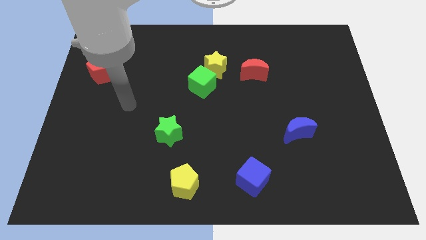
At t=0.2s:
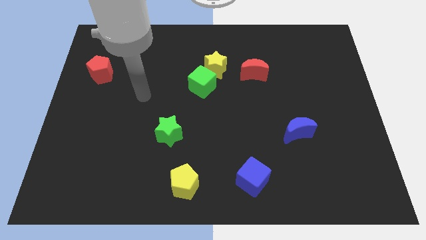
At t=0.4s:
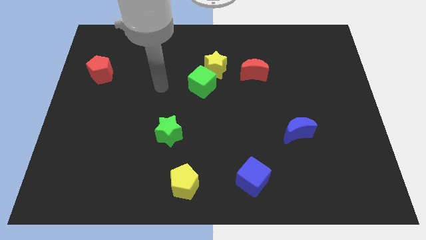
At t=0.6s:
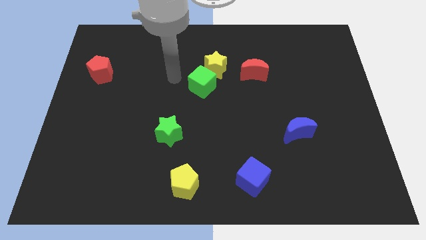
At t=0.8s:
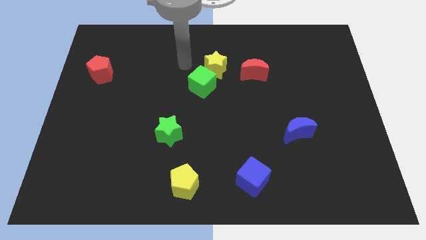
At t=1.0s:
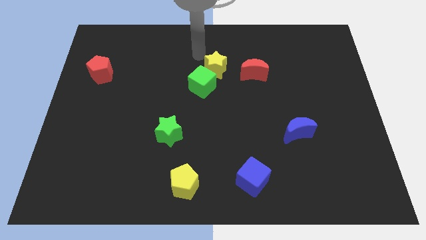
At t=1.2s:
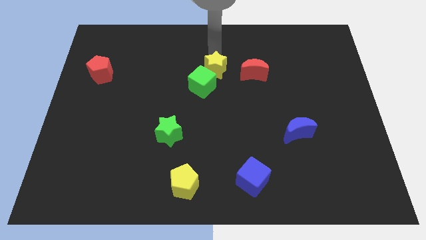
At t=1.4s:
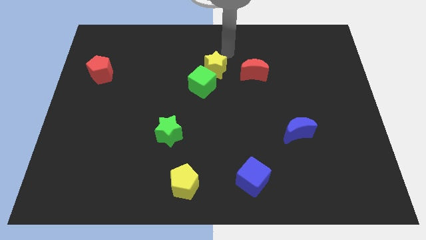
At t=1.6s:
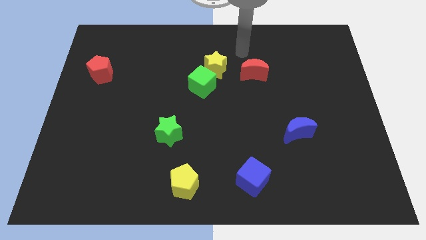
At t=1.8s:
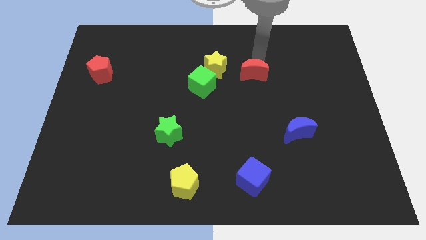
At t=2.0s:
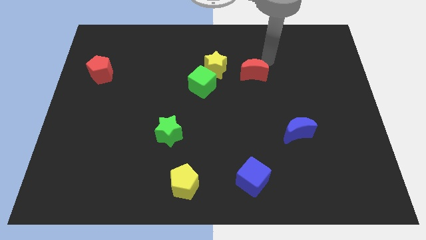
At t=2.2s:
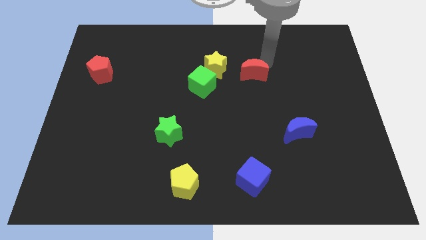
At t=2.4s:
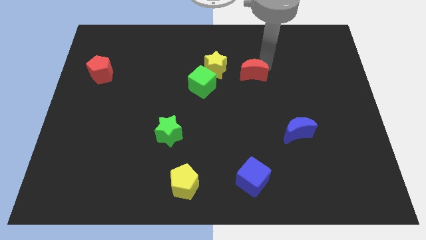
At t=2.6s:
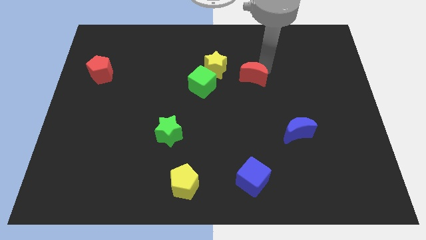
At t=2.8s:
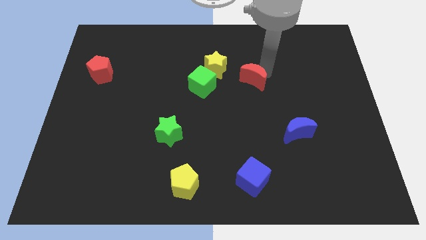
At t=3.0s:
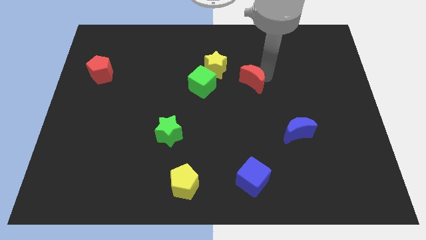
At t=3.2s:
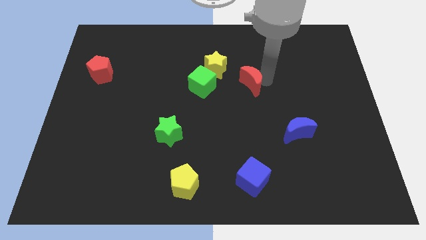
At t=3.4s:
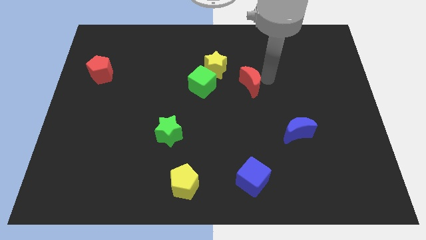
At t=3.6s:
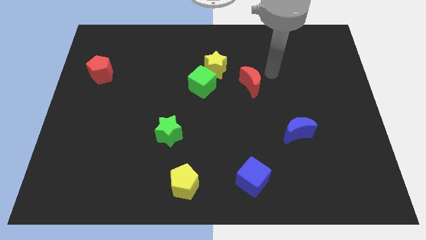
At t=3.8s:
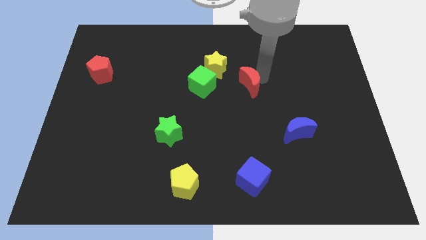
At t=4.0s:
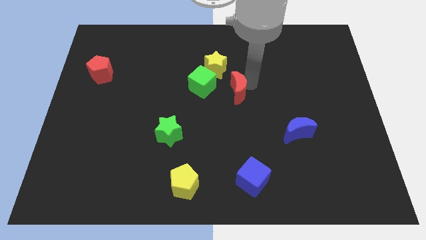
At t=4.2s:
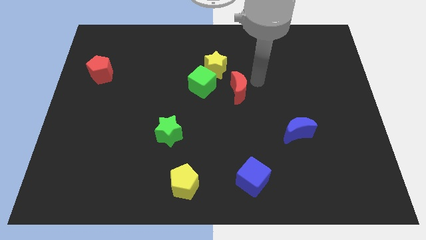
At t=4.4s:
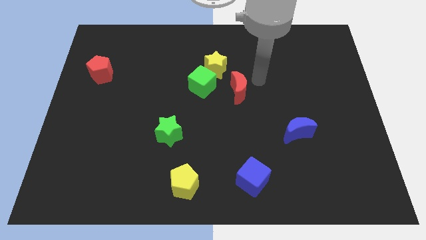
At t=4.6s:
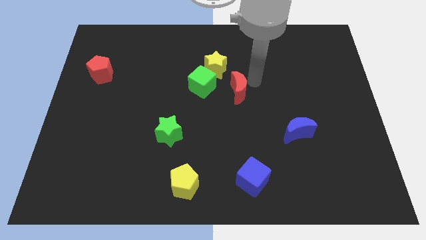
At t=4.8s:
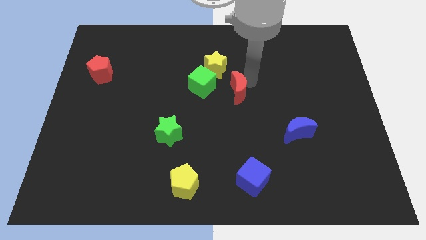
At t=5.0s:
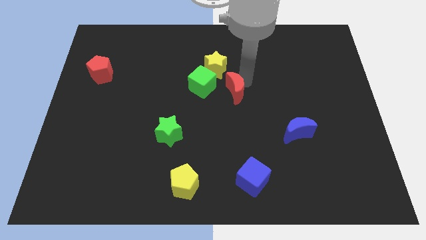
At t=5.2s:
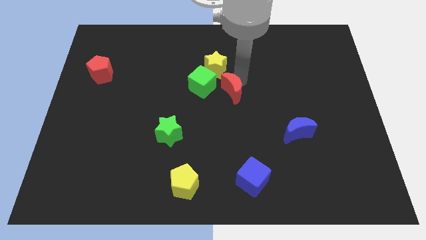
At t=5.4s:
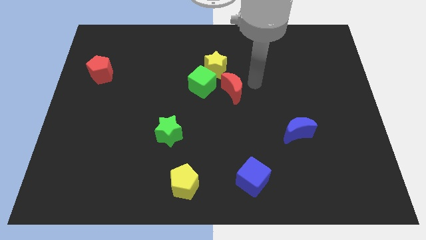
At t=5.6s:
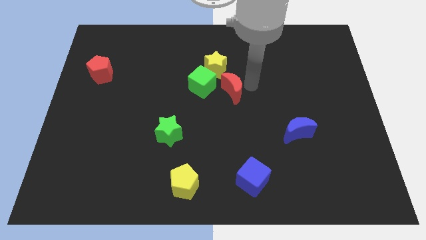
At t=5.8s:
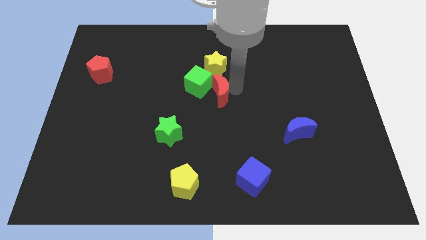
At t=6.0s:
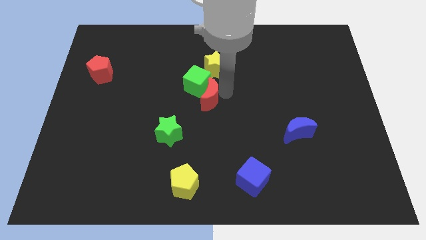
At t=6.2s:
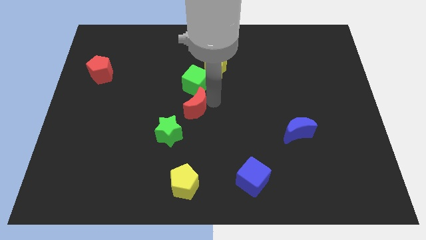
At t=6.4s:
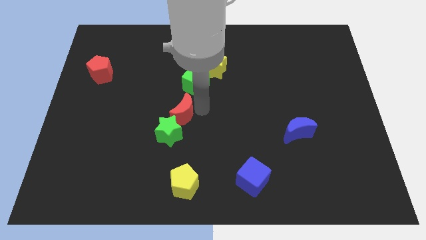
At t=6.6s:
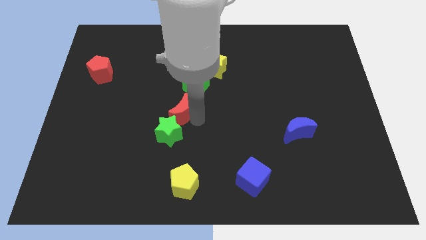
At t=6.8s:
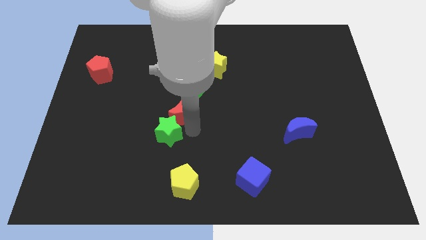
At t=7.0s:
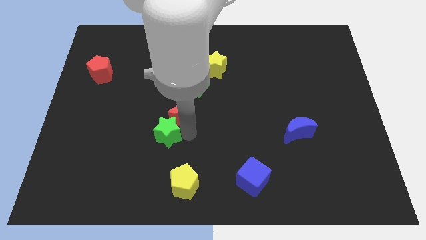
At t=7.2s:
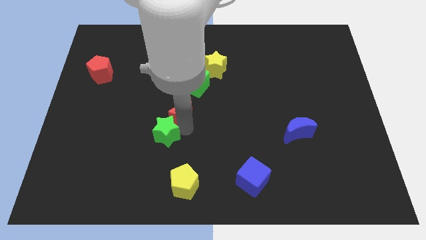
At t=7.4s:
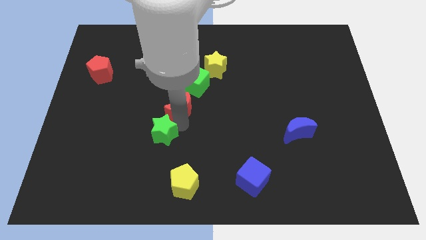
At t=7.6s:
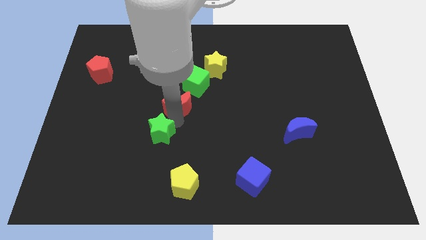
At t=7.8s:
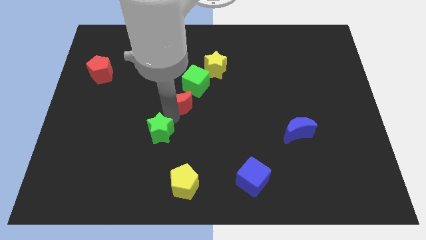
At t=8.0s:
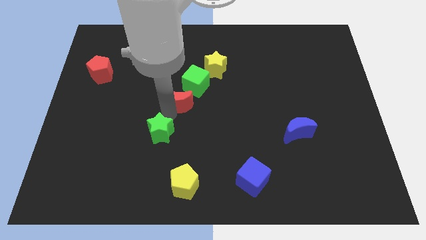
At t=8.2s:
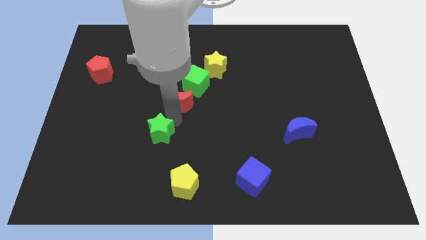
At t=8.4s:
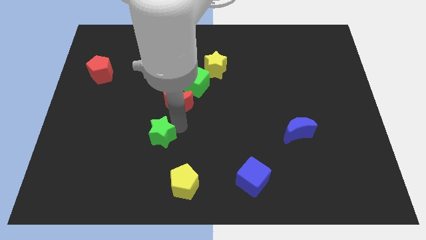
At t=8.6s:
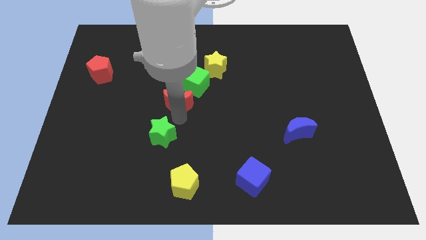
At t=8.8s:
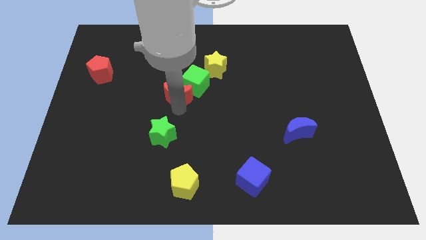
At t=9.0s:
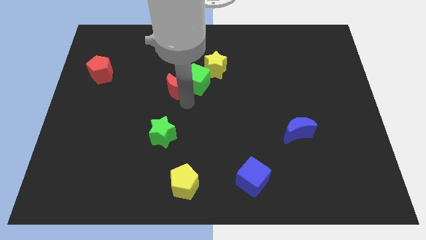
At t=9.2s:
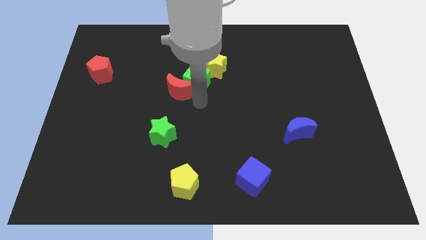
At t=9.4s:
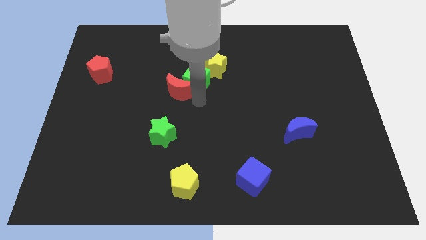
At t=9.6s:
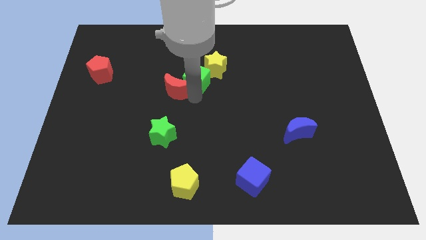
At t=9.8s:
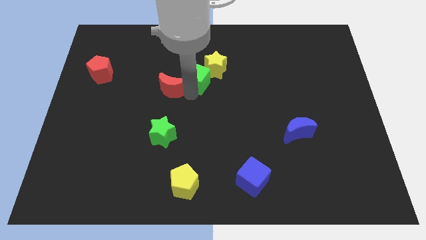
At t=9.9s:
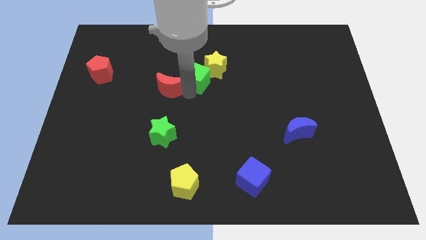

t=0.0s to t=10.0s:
slide the red moon left

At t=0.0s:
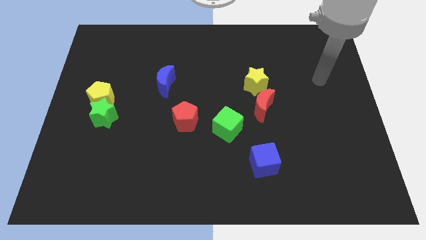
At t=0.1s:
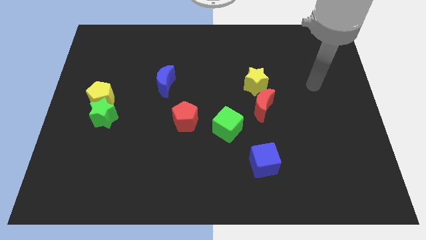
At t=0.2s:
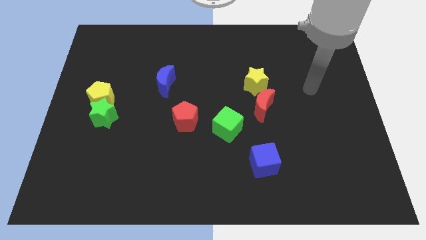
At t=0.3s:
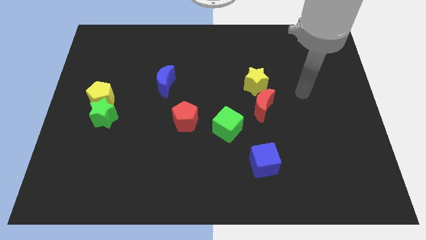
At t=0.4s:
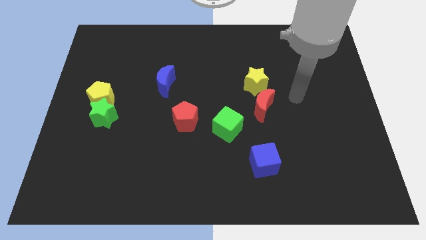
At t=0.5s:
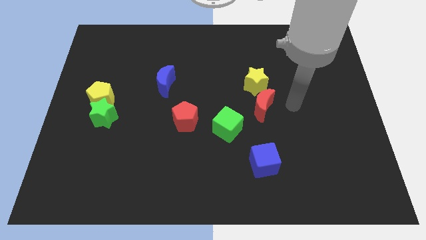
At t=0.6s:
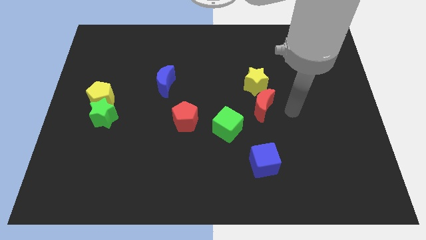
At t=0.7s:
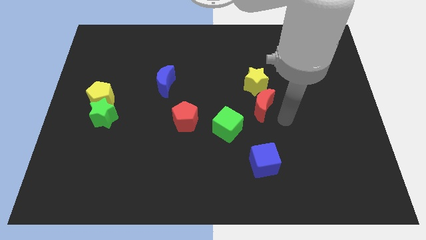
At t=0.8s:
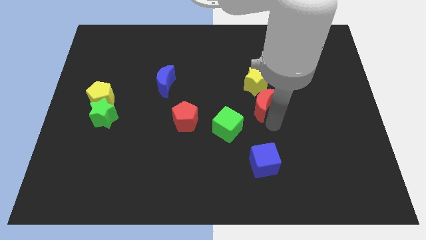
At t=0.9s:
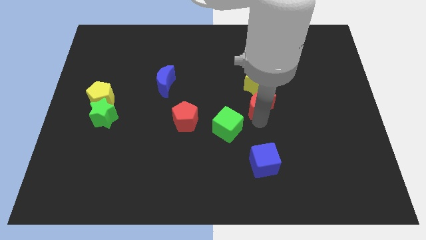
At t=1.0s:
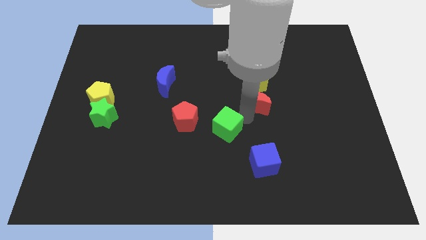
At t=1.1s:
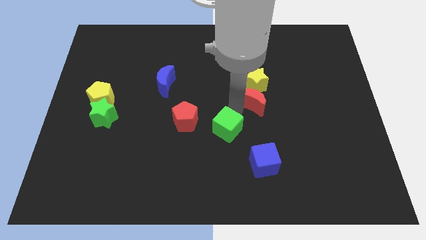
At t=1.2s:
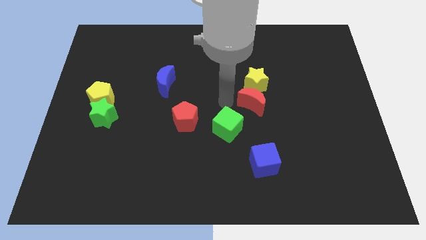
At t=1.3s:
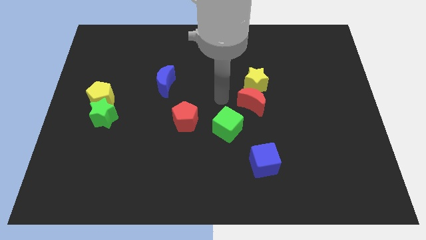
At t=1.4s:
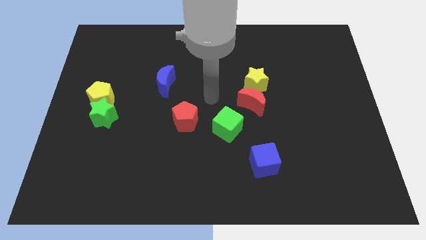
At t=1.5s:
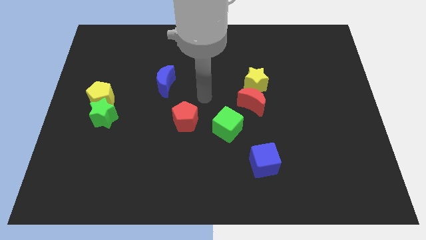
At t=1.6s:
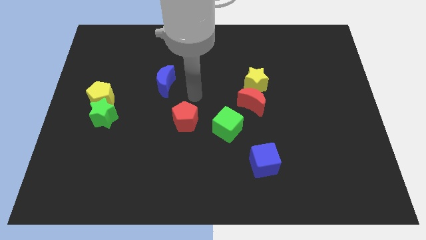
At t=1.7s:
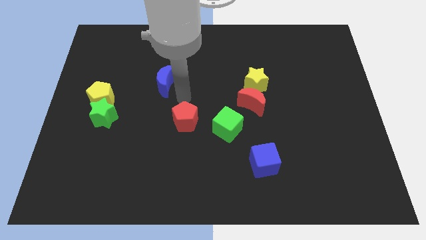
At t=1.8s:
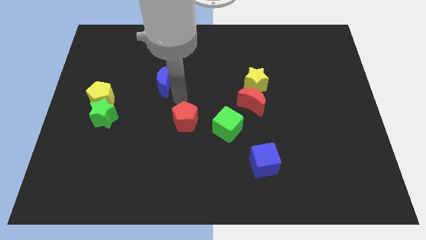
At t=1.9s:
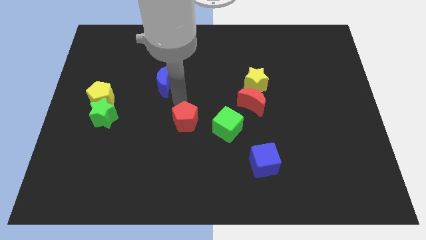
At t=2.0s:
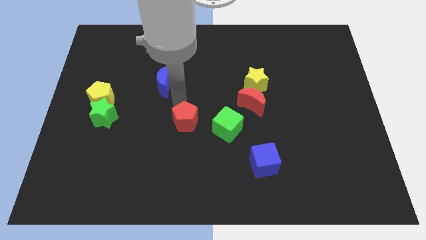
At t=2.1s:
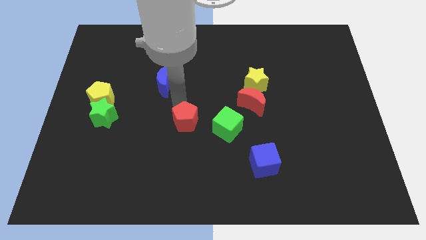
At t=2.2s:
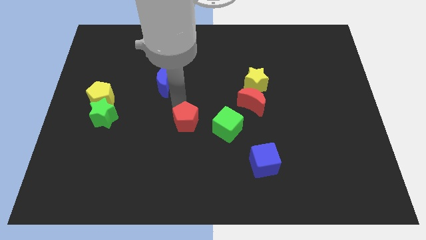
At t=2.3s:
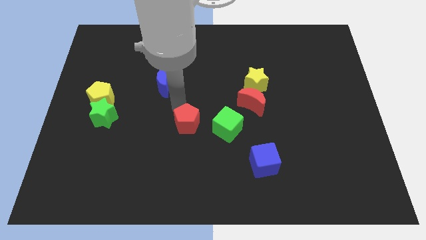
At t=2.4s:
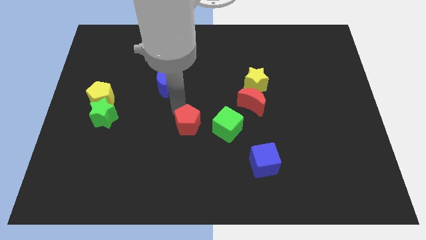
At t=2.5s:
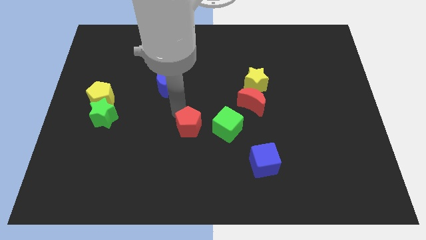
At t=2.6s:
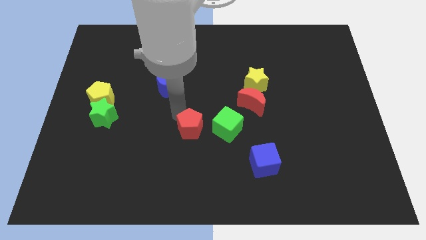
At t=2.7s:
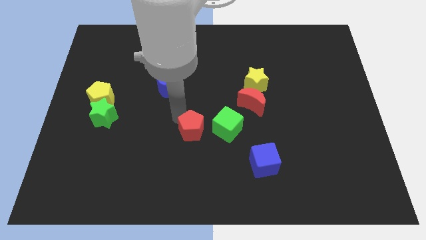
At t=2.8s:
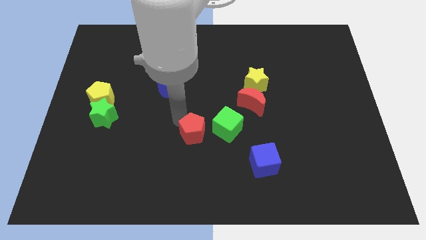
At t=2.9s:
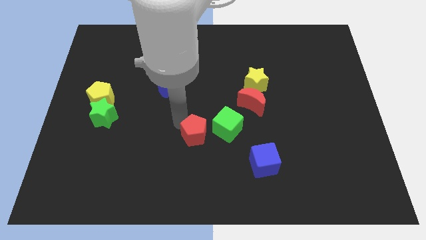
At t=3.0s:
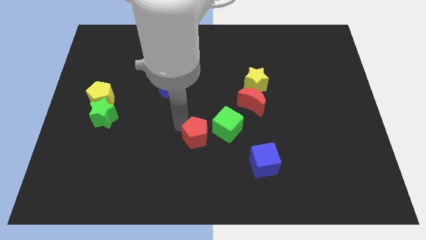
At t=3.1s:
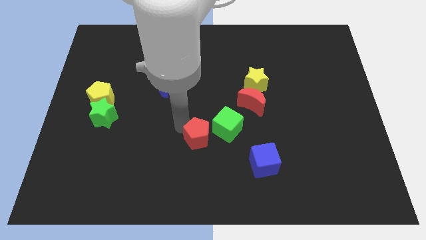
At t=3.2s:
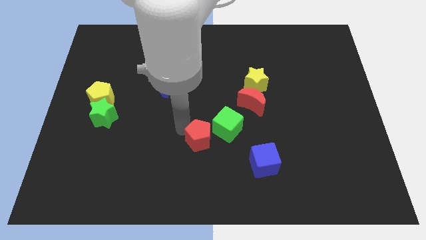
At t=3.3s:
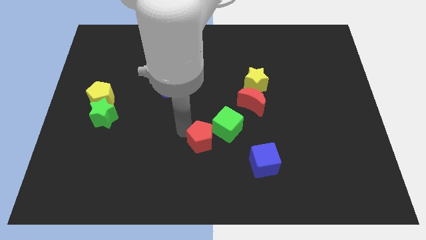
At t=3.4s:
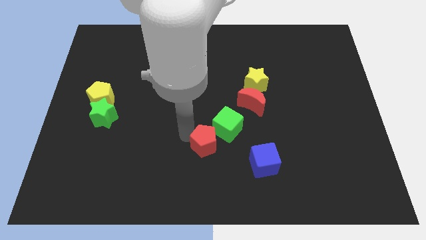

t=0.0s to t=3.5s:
slide the red pentagon diagonally down and to the right somewhat
